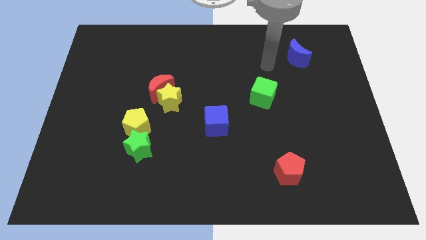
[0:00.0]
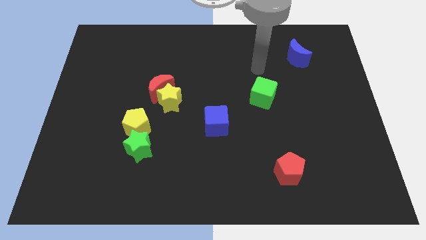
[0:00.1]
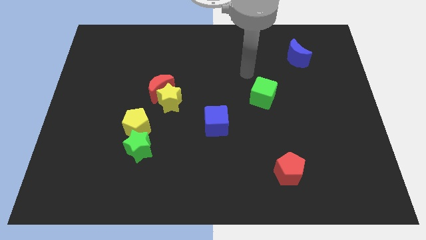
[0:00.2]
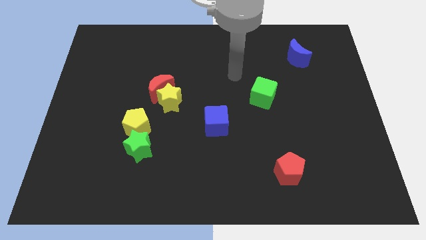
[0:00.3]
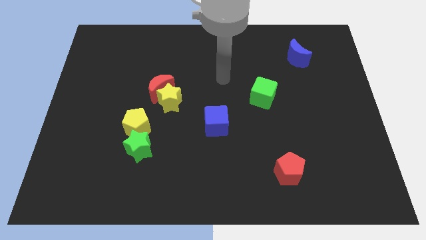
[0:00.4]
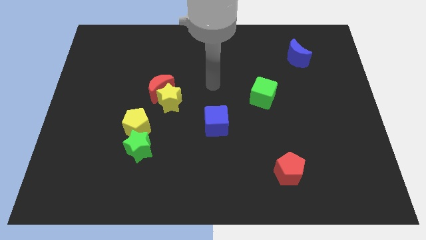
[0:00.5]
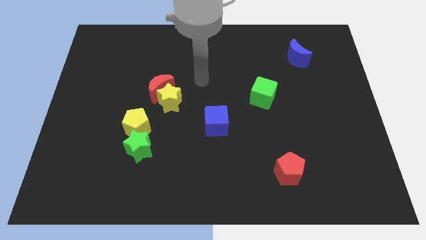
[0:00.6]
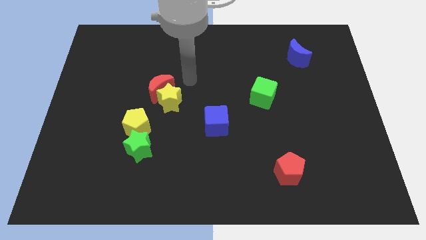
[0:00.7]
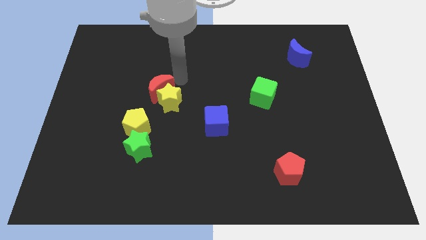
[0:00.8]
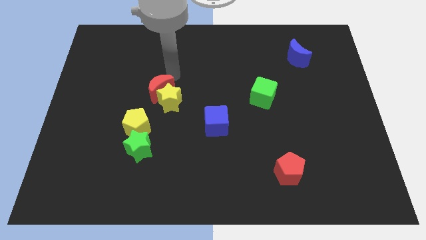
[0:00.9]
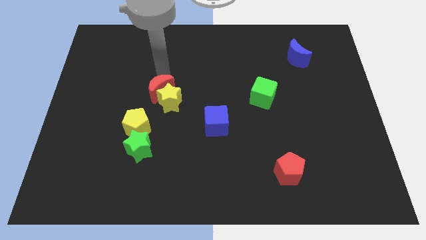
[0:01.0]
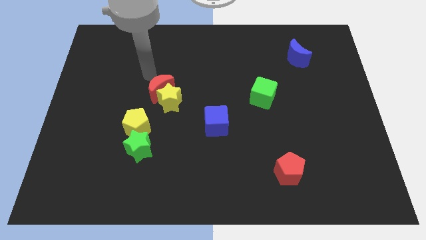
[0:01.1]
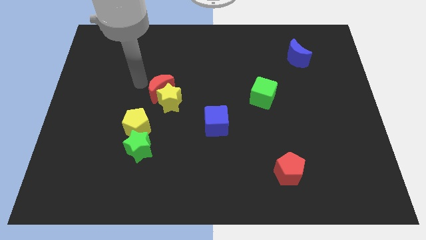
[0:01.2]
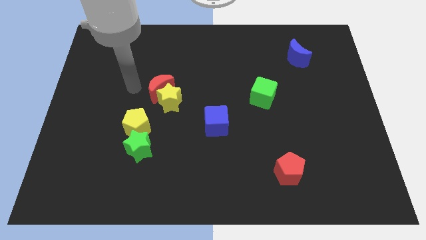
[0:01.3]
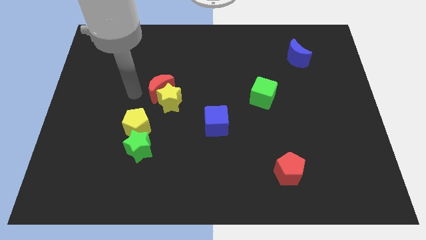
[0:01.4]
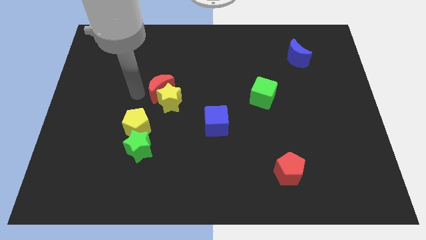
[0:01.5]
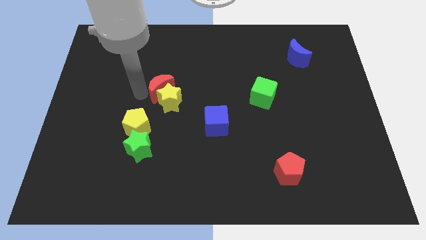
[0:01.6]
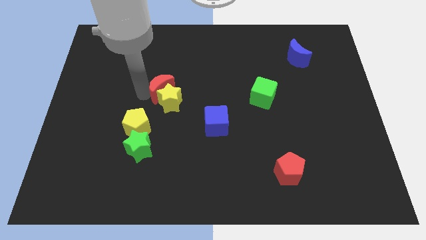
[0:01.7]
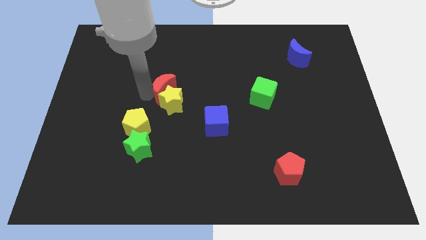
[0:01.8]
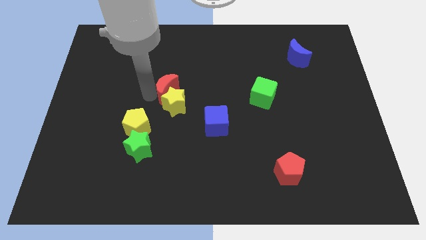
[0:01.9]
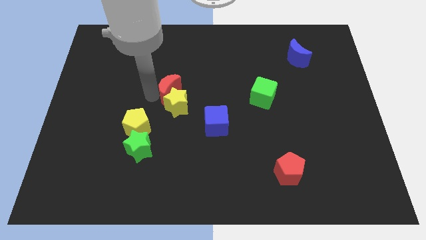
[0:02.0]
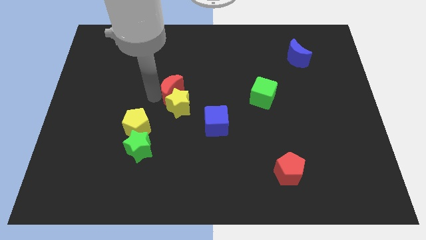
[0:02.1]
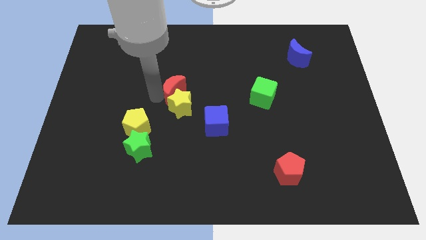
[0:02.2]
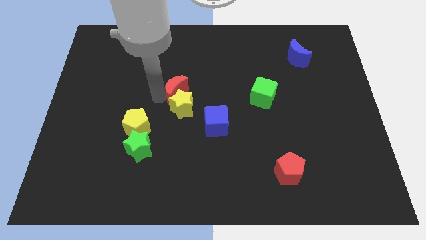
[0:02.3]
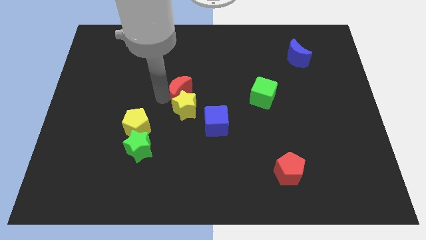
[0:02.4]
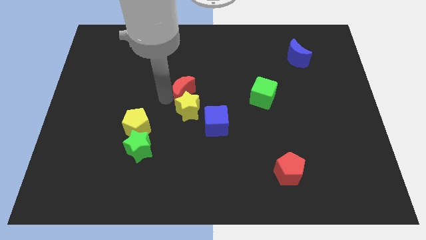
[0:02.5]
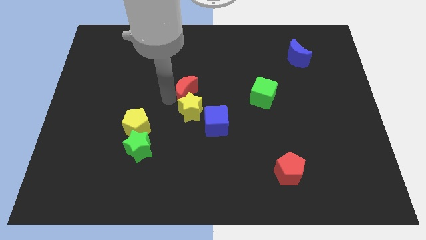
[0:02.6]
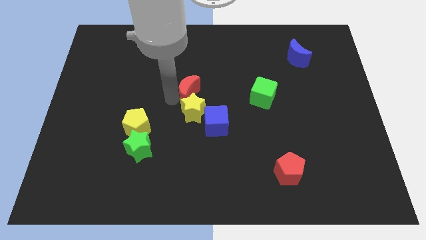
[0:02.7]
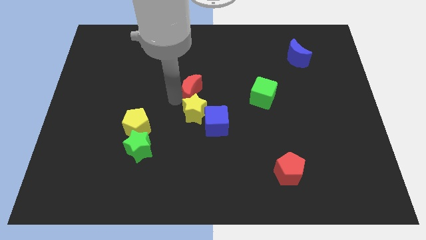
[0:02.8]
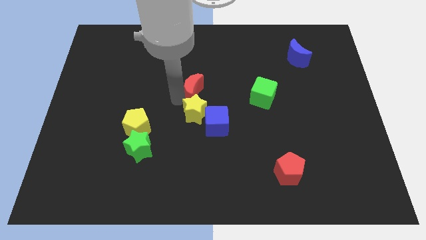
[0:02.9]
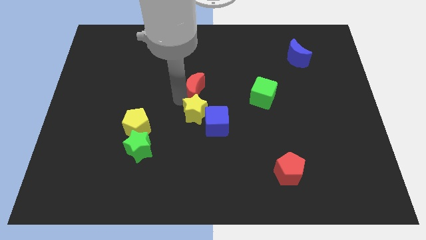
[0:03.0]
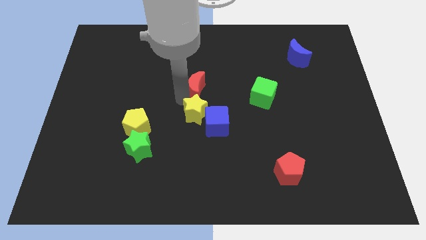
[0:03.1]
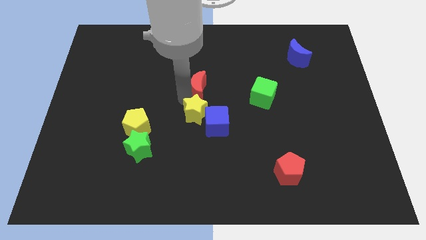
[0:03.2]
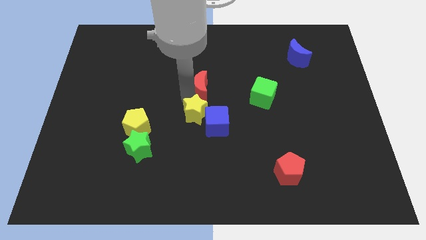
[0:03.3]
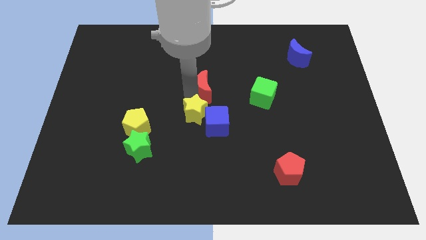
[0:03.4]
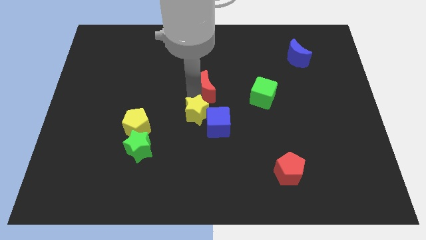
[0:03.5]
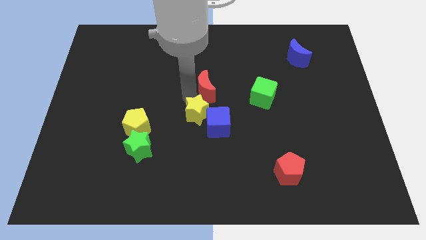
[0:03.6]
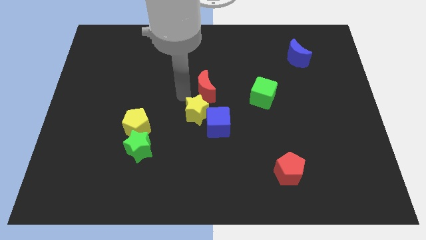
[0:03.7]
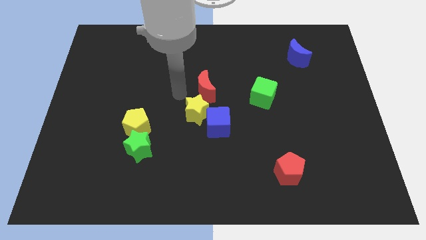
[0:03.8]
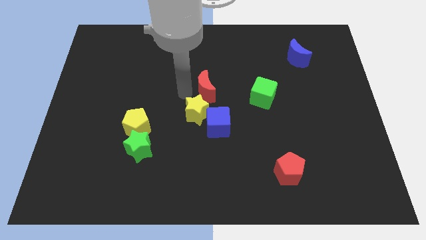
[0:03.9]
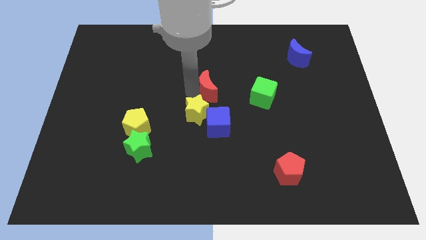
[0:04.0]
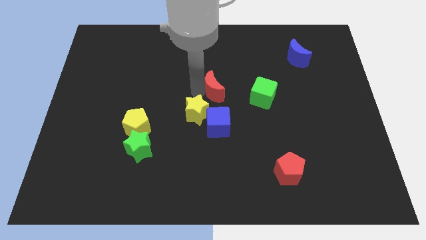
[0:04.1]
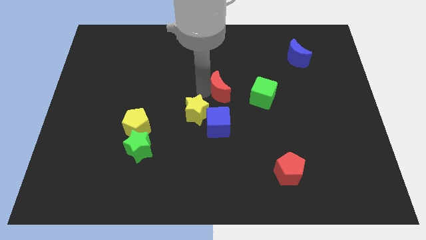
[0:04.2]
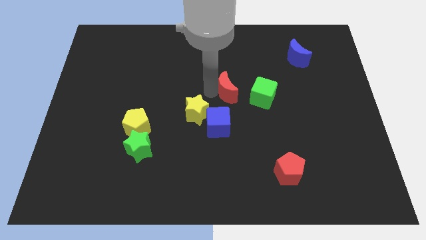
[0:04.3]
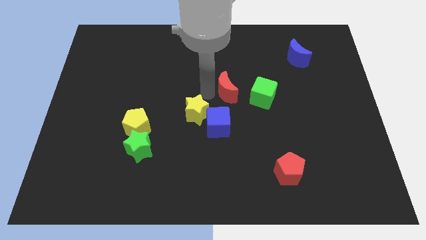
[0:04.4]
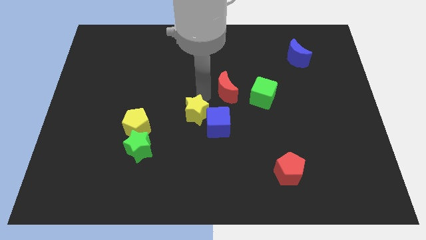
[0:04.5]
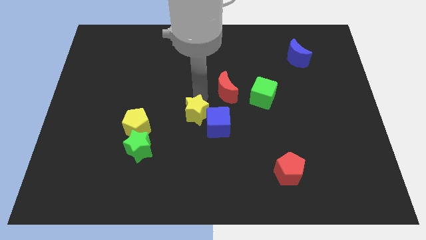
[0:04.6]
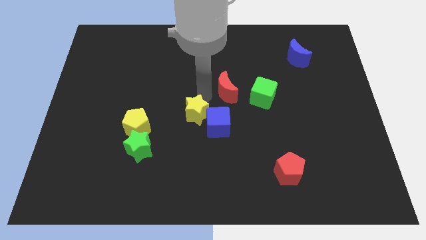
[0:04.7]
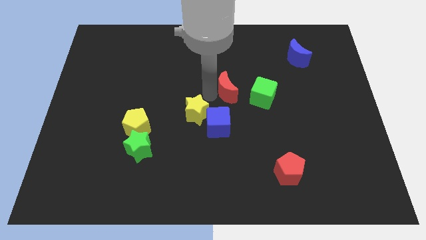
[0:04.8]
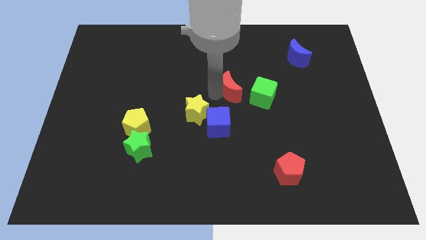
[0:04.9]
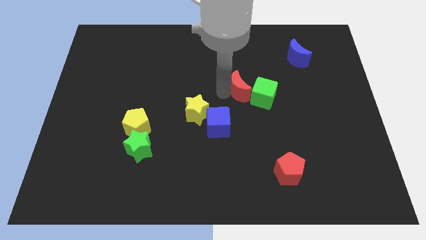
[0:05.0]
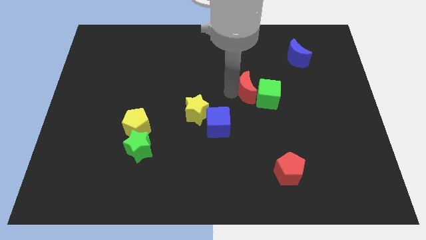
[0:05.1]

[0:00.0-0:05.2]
move the red moon right

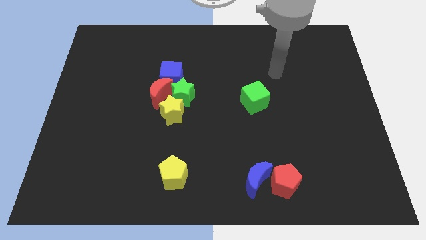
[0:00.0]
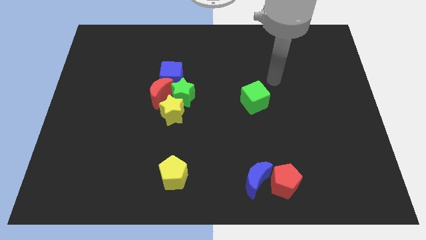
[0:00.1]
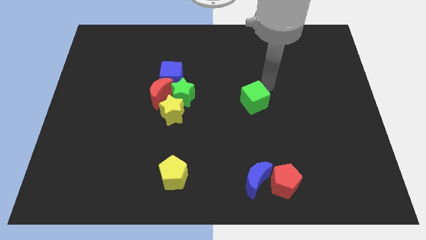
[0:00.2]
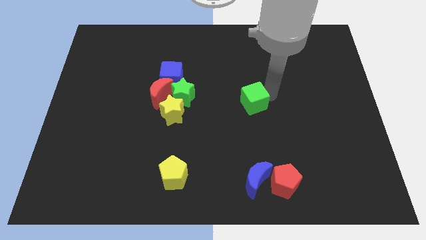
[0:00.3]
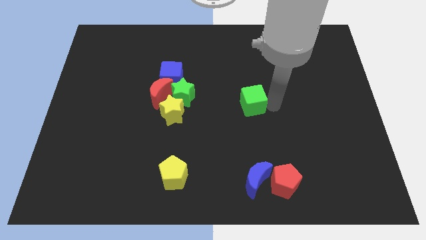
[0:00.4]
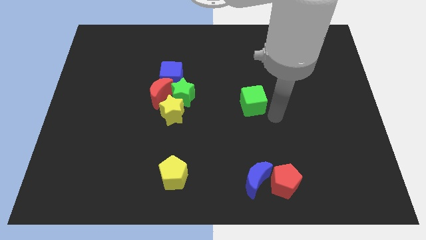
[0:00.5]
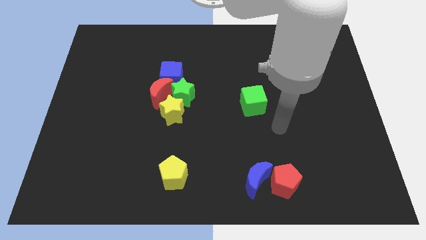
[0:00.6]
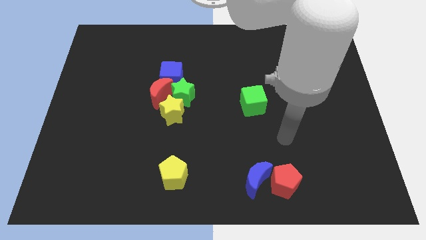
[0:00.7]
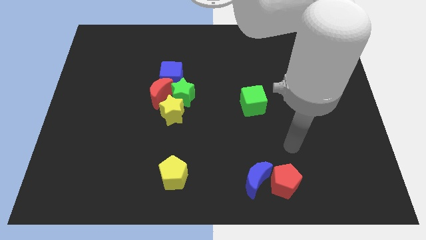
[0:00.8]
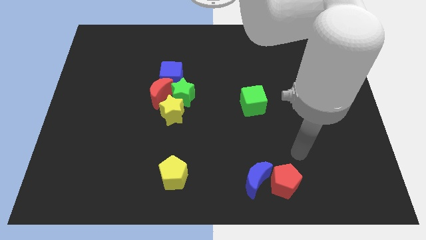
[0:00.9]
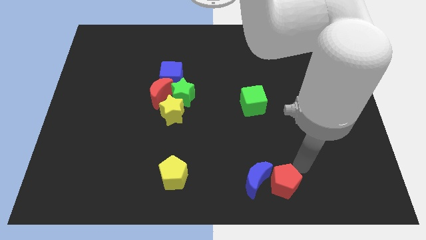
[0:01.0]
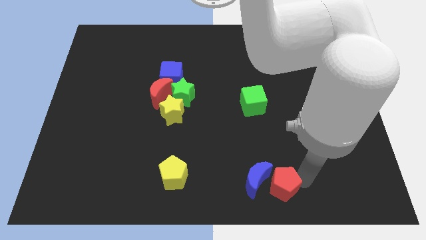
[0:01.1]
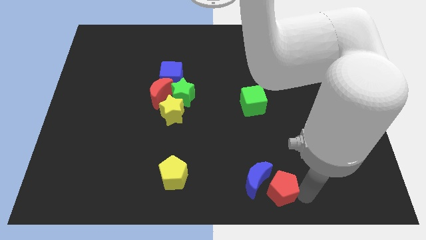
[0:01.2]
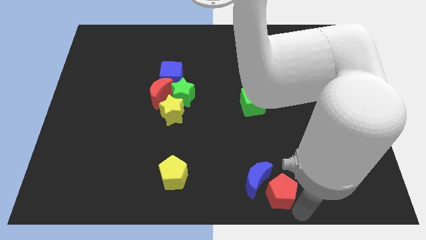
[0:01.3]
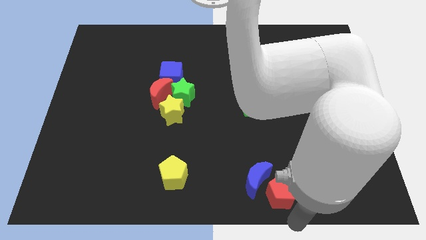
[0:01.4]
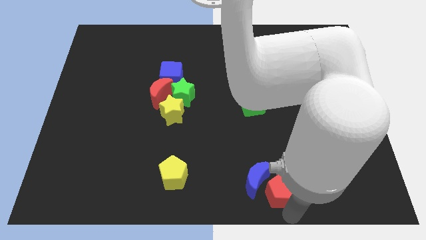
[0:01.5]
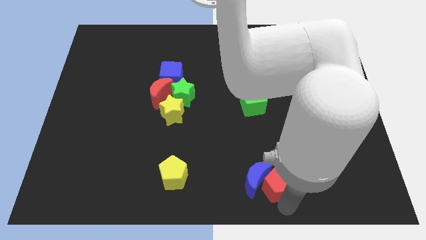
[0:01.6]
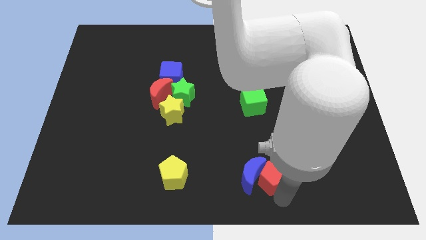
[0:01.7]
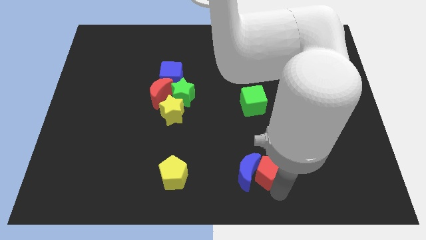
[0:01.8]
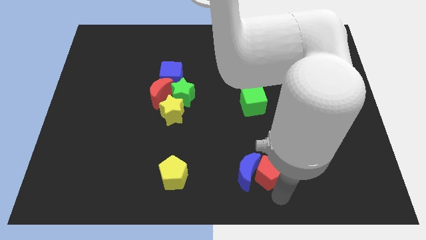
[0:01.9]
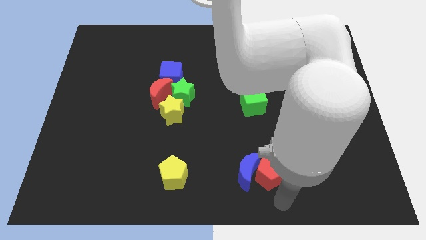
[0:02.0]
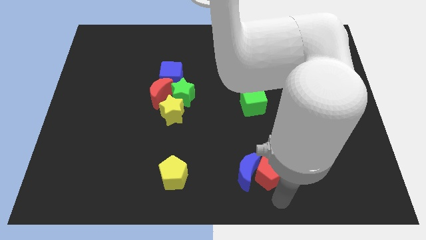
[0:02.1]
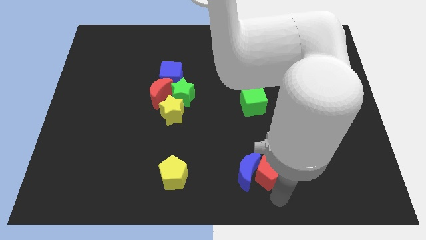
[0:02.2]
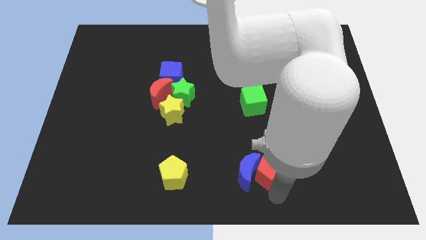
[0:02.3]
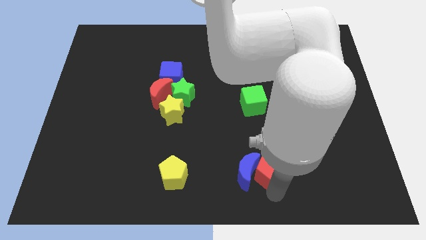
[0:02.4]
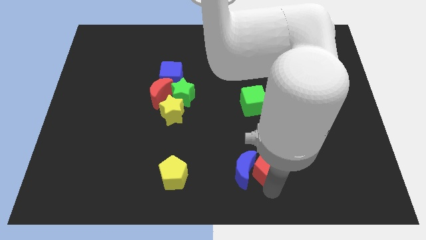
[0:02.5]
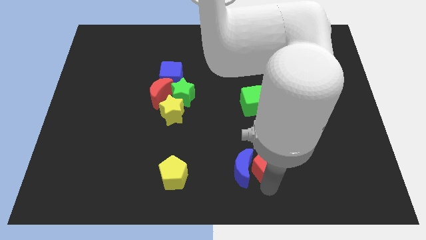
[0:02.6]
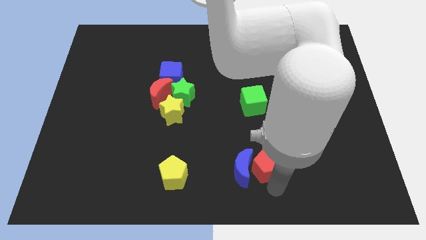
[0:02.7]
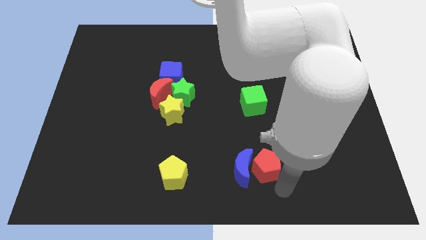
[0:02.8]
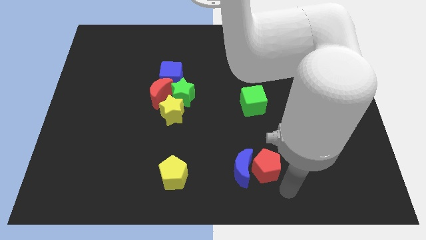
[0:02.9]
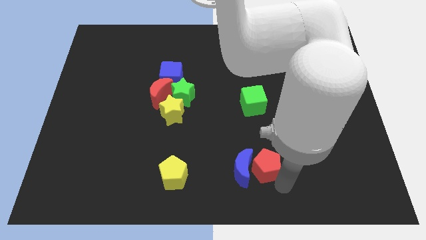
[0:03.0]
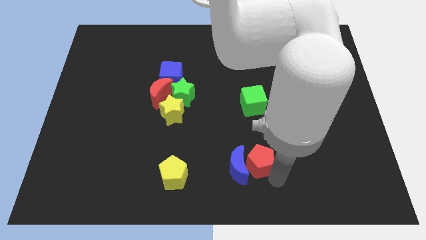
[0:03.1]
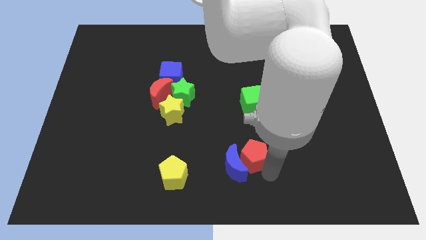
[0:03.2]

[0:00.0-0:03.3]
move the red pentagon slightly up and to the left
